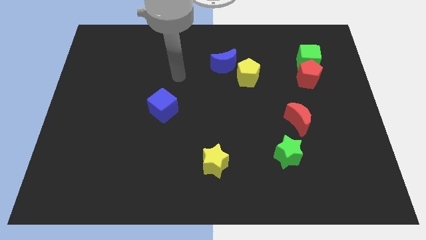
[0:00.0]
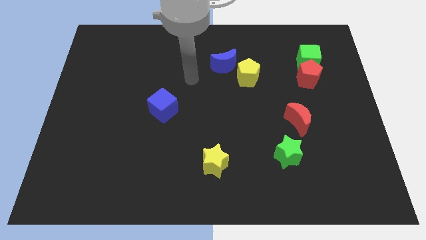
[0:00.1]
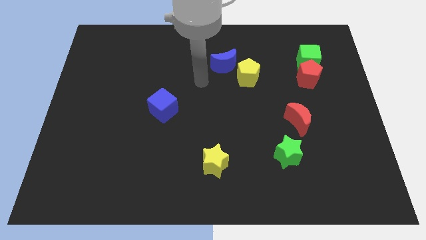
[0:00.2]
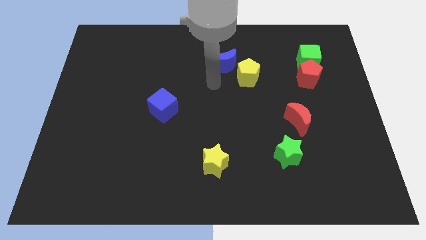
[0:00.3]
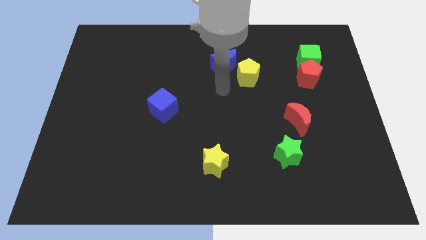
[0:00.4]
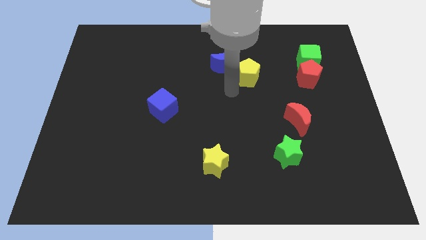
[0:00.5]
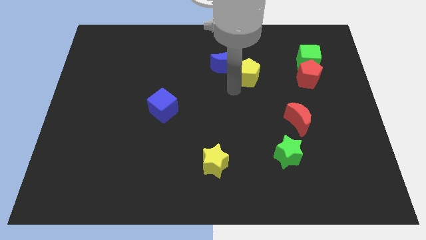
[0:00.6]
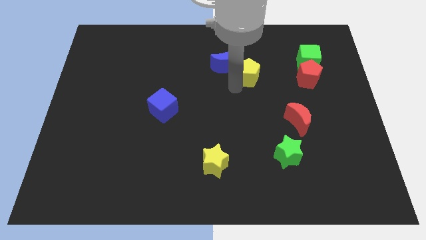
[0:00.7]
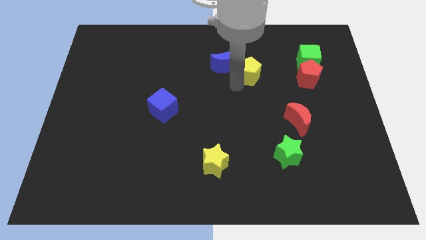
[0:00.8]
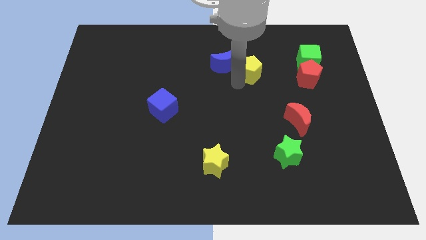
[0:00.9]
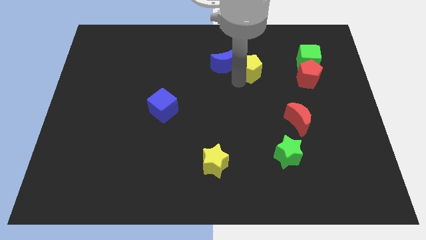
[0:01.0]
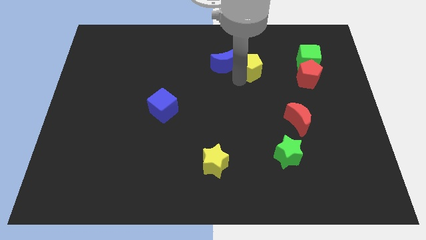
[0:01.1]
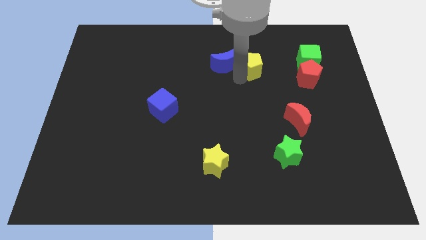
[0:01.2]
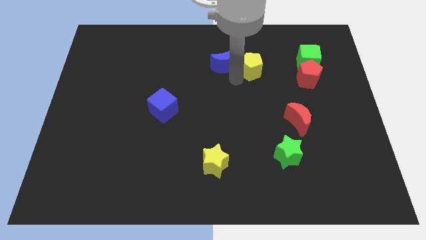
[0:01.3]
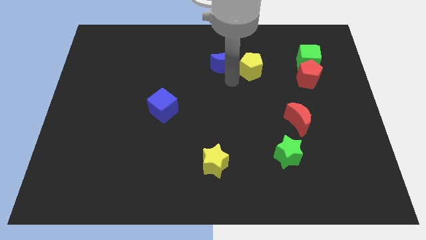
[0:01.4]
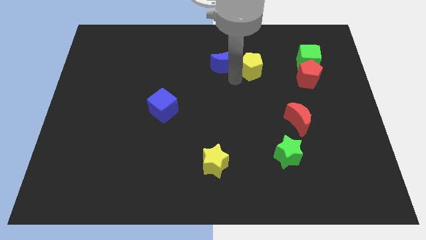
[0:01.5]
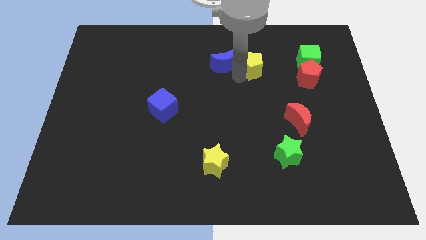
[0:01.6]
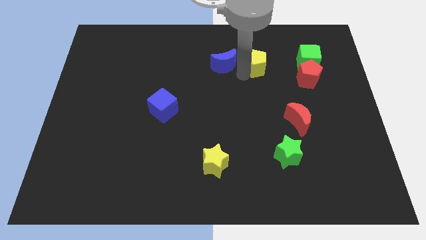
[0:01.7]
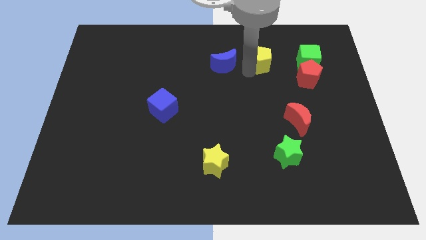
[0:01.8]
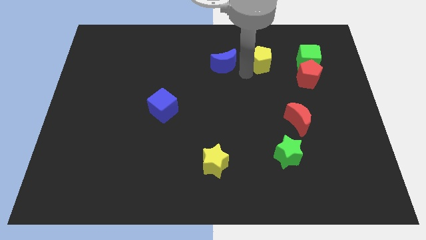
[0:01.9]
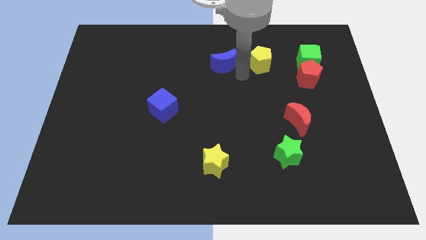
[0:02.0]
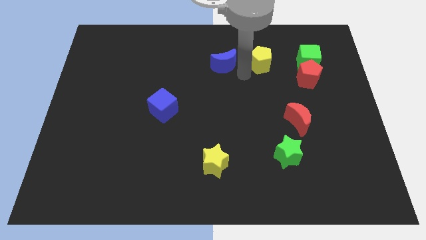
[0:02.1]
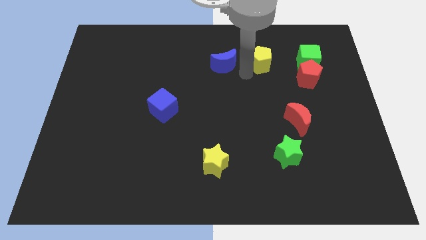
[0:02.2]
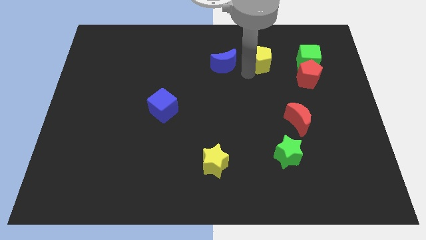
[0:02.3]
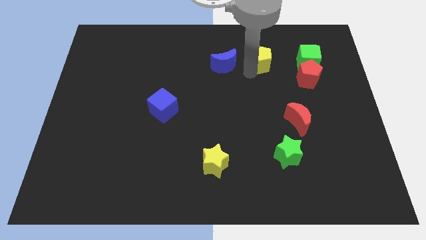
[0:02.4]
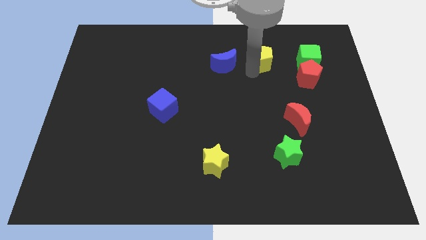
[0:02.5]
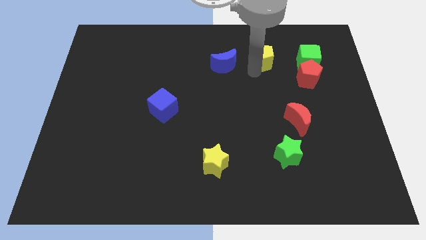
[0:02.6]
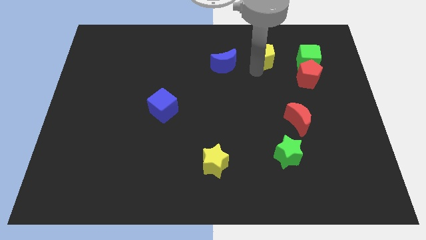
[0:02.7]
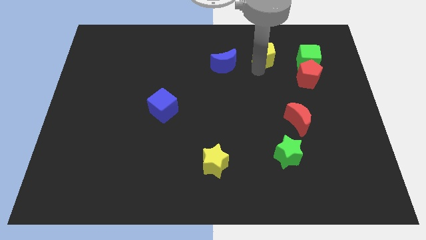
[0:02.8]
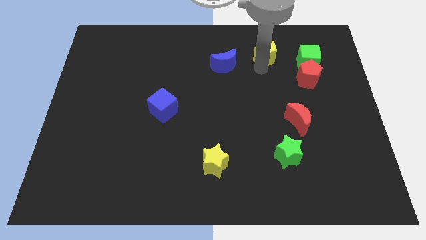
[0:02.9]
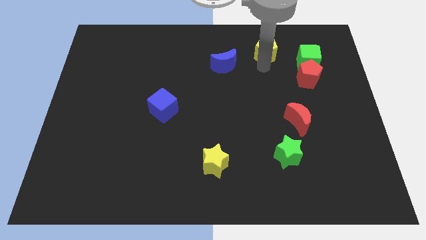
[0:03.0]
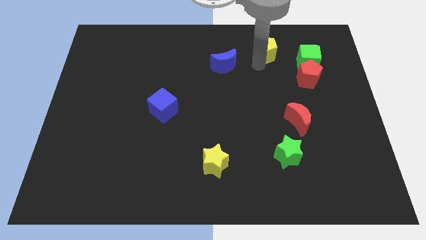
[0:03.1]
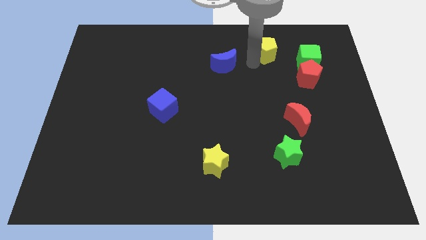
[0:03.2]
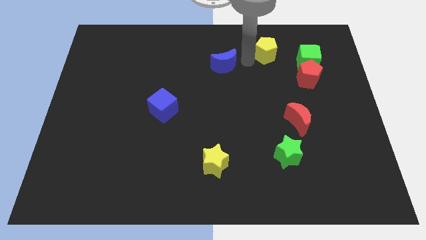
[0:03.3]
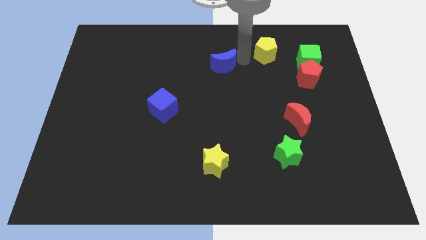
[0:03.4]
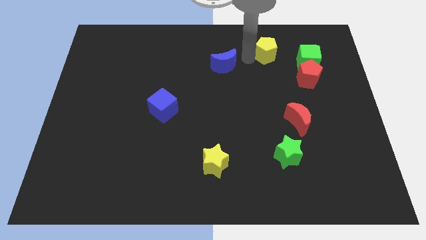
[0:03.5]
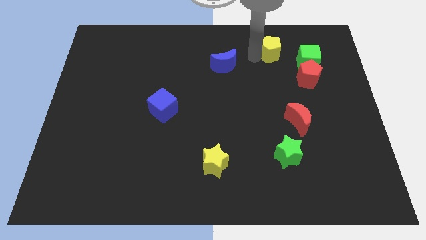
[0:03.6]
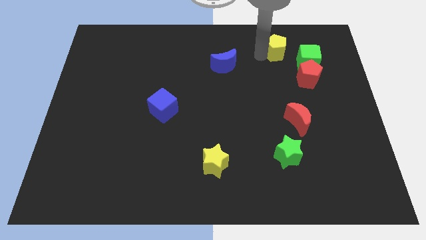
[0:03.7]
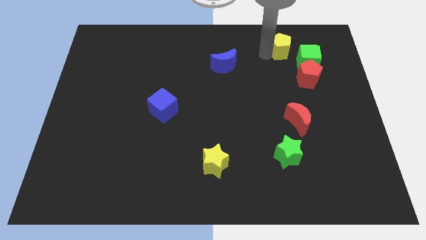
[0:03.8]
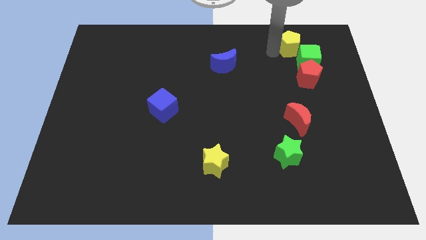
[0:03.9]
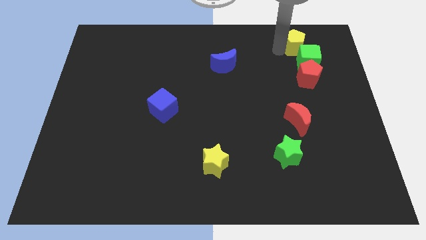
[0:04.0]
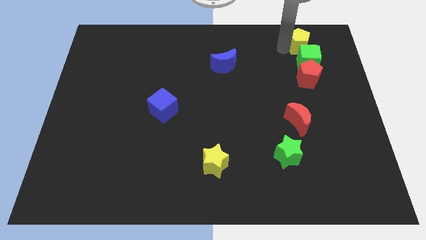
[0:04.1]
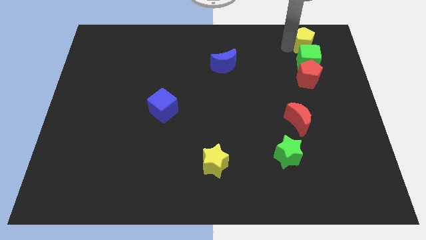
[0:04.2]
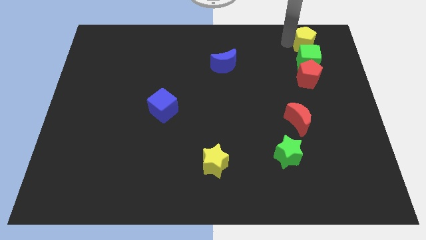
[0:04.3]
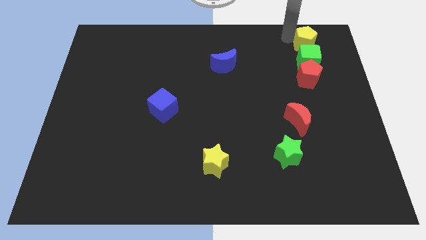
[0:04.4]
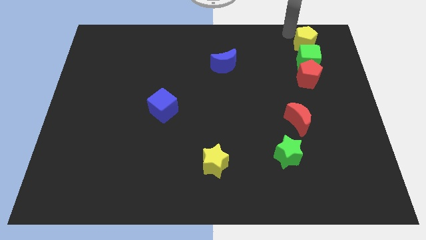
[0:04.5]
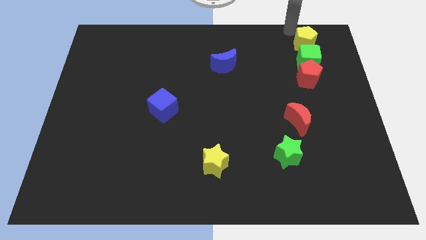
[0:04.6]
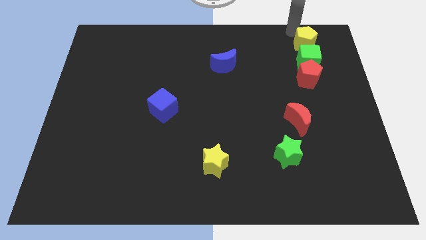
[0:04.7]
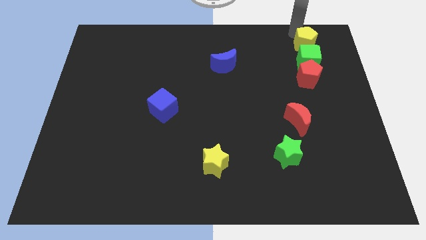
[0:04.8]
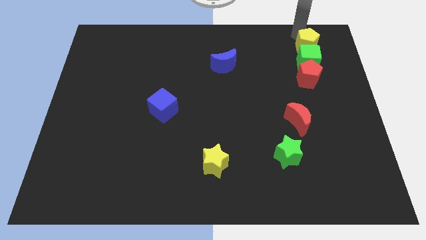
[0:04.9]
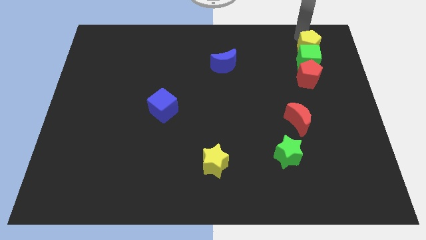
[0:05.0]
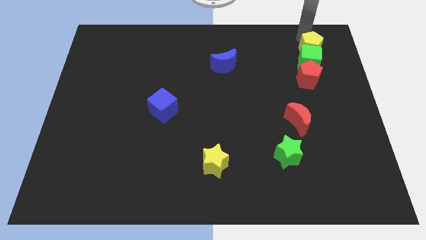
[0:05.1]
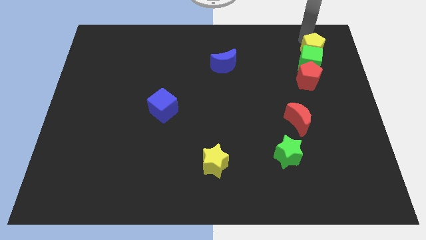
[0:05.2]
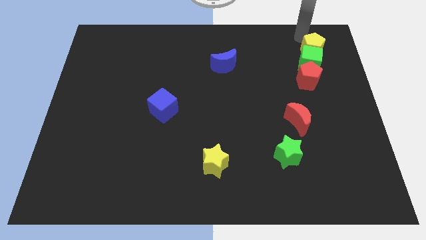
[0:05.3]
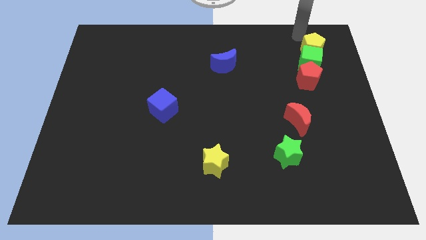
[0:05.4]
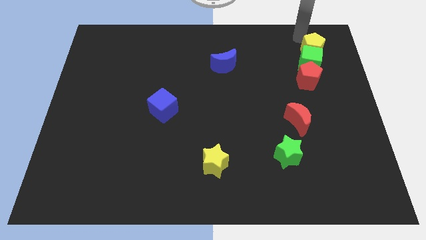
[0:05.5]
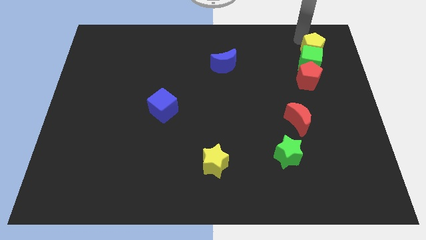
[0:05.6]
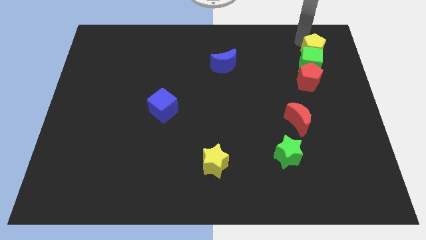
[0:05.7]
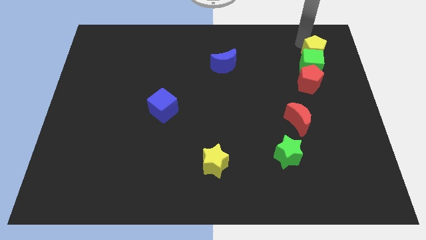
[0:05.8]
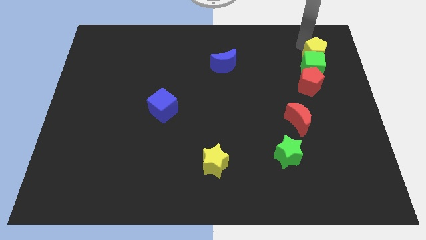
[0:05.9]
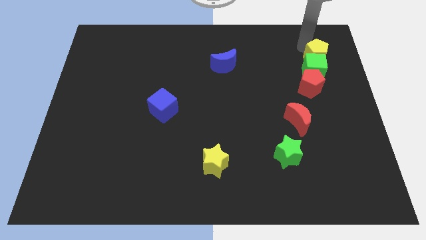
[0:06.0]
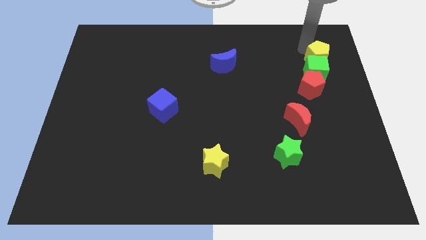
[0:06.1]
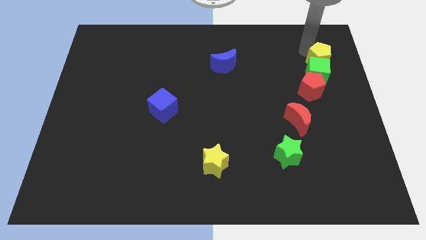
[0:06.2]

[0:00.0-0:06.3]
slide the yellow pentagon diagonally up and to the right of the red pentagon
